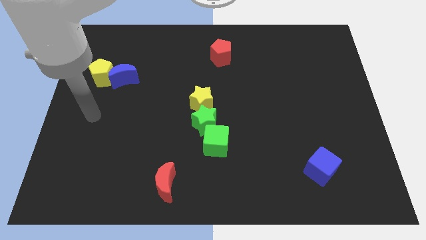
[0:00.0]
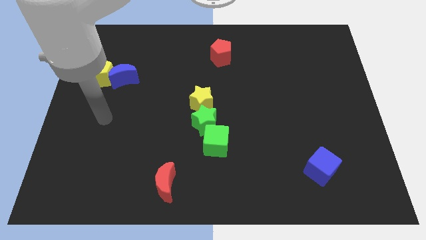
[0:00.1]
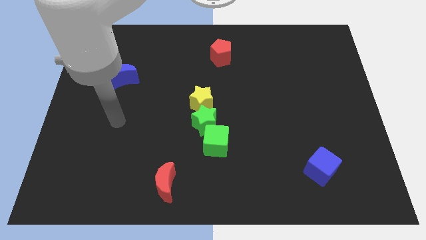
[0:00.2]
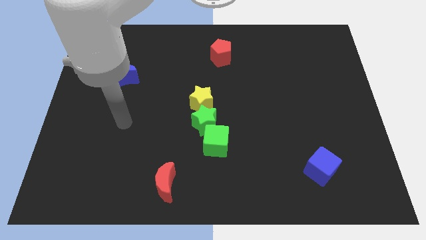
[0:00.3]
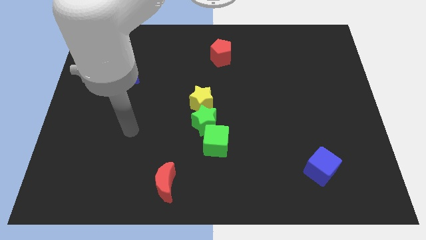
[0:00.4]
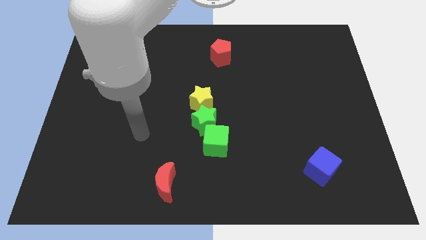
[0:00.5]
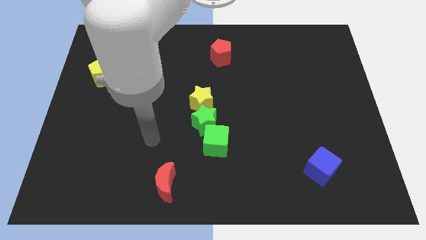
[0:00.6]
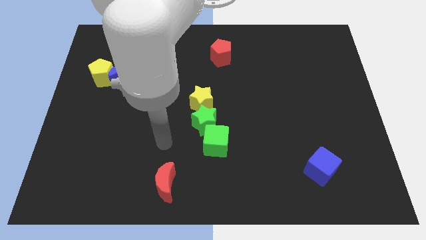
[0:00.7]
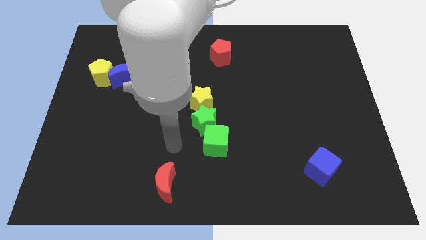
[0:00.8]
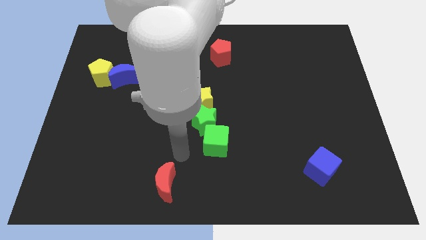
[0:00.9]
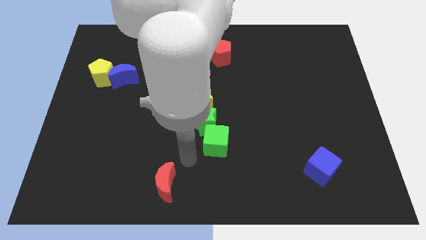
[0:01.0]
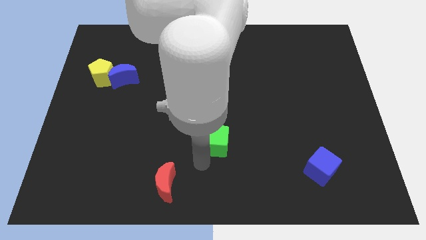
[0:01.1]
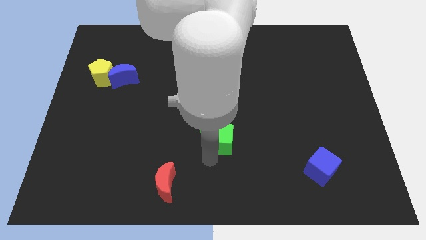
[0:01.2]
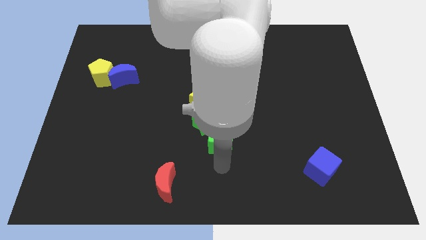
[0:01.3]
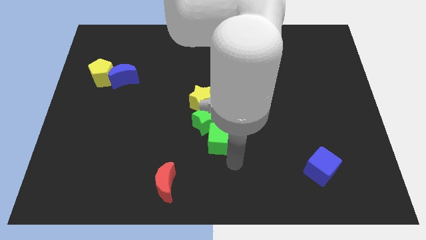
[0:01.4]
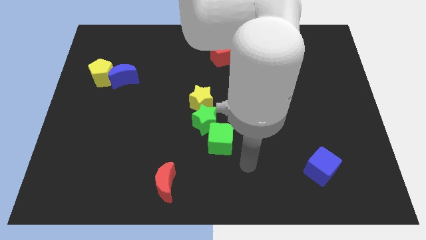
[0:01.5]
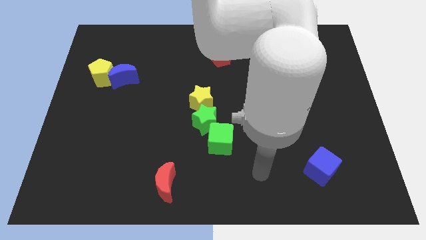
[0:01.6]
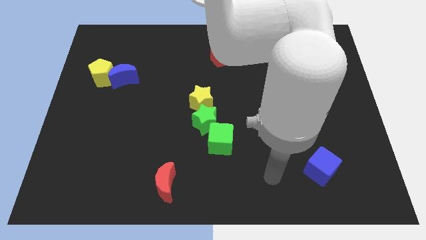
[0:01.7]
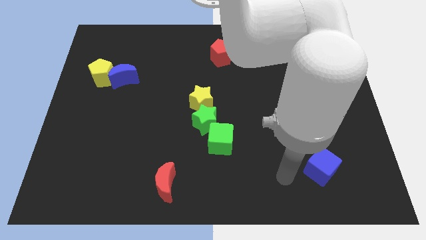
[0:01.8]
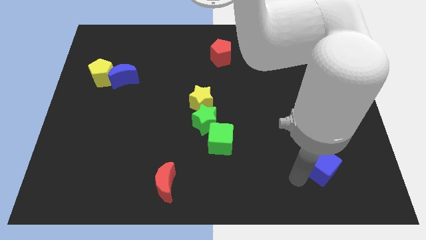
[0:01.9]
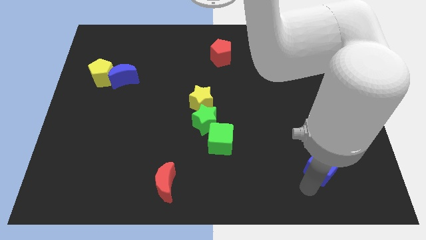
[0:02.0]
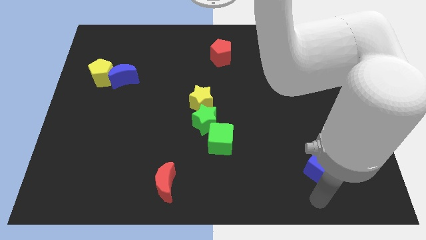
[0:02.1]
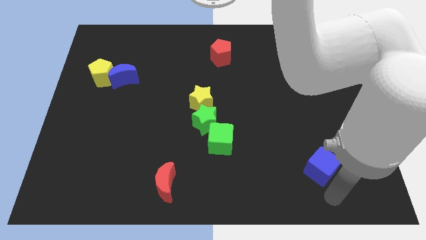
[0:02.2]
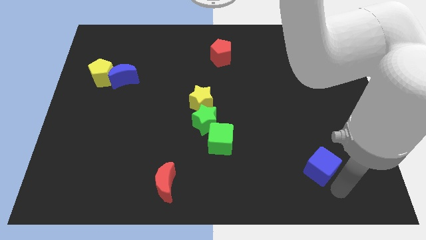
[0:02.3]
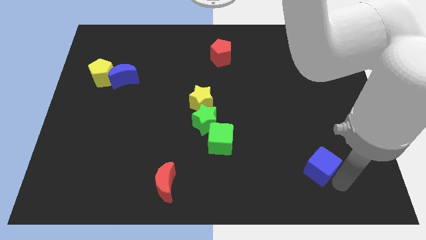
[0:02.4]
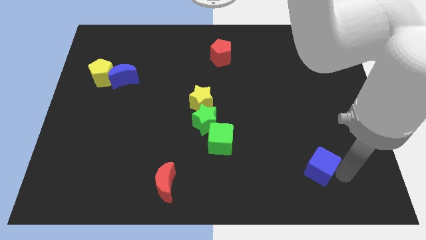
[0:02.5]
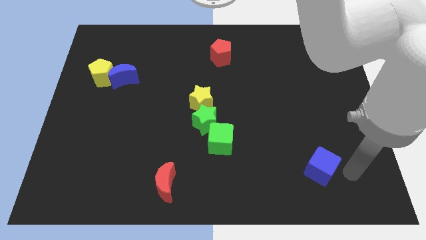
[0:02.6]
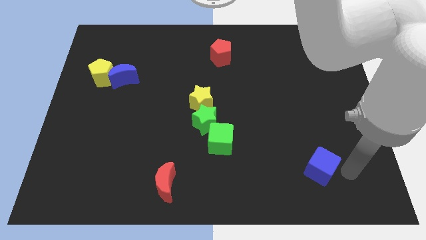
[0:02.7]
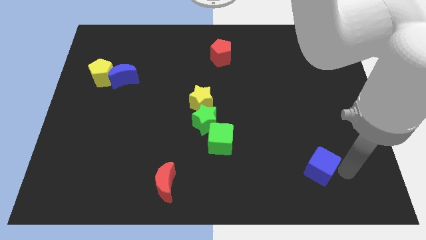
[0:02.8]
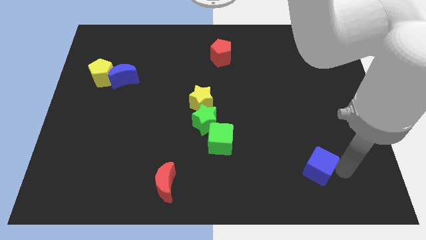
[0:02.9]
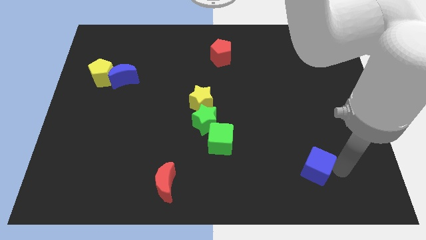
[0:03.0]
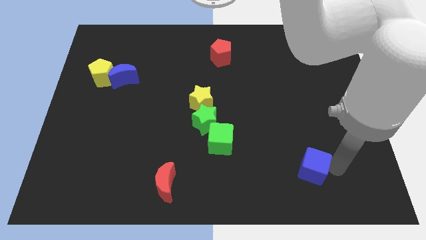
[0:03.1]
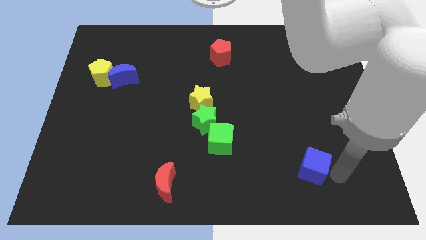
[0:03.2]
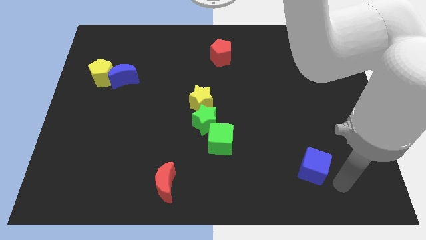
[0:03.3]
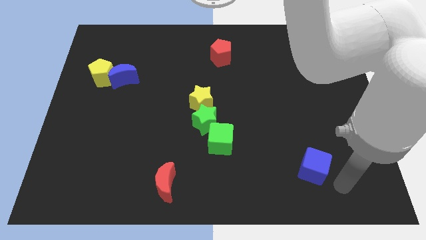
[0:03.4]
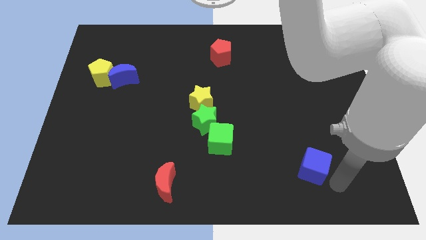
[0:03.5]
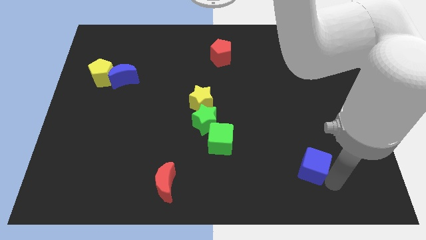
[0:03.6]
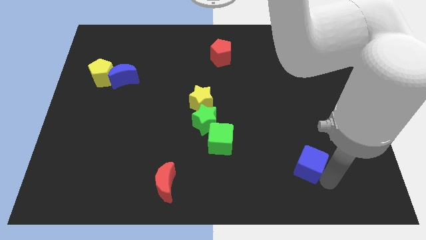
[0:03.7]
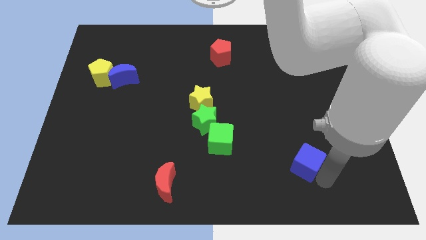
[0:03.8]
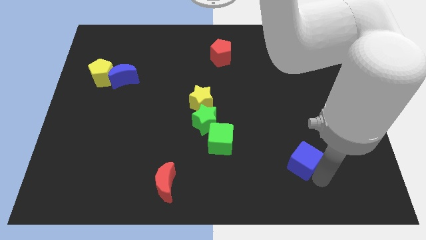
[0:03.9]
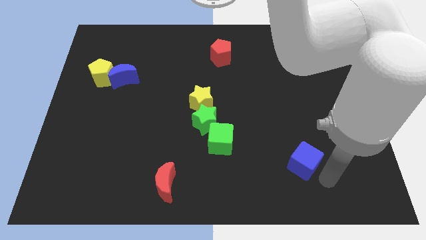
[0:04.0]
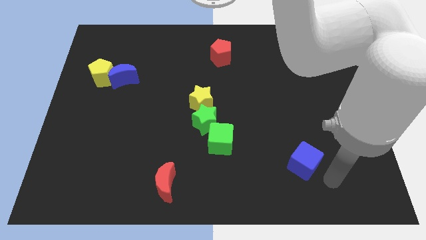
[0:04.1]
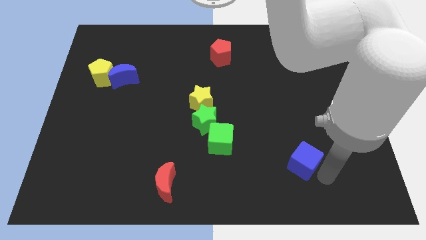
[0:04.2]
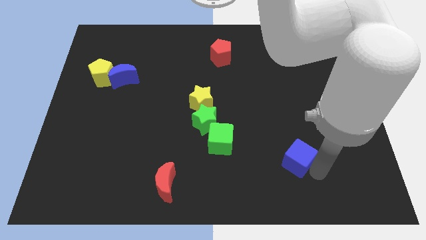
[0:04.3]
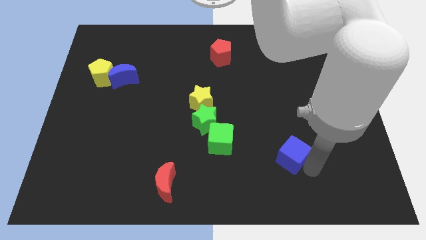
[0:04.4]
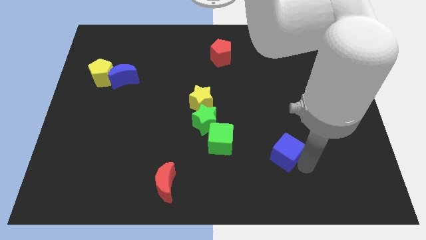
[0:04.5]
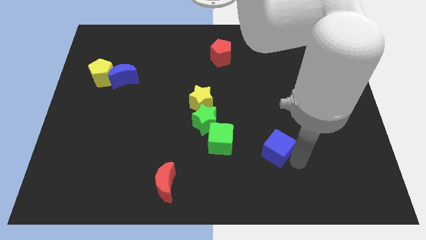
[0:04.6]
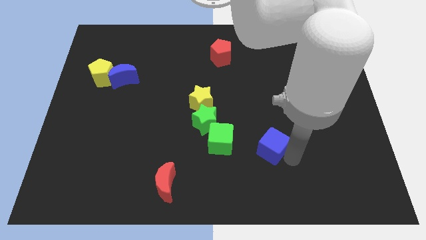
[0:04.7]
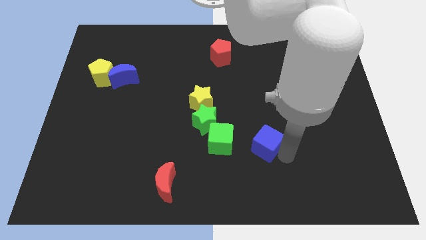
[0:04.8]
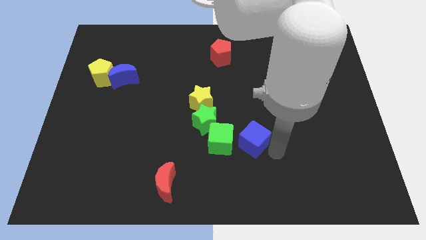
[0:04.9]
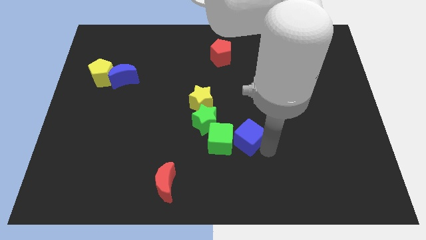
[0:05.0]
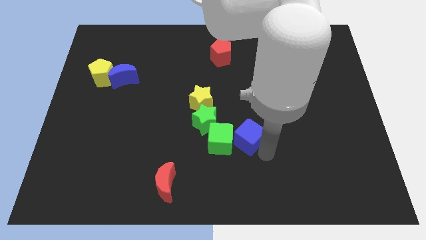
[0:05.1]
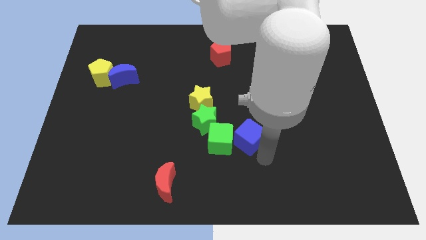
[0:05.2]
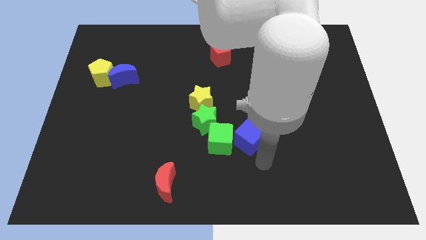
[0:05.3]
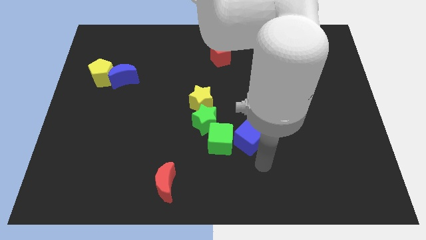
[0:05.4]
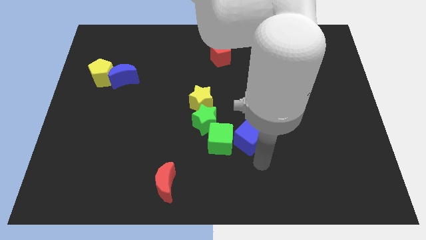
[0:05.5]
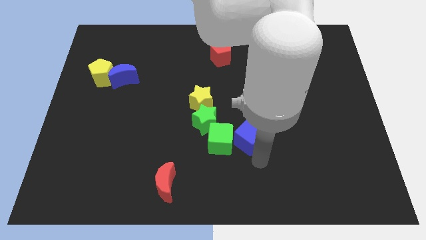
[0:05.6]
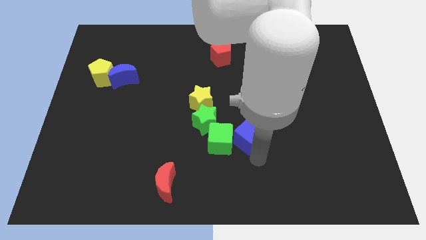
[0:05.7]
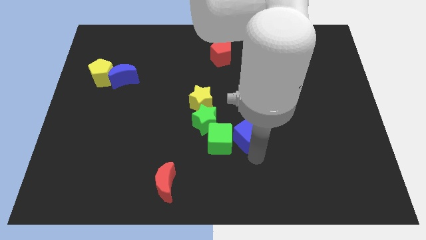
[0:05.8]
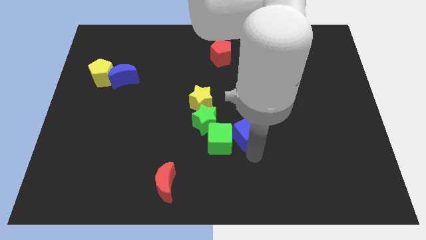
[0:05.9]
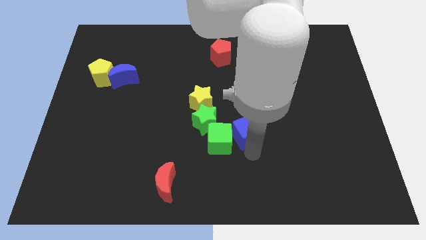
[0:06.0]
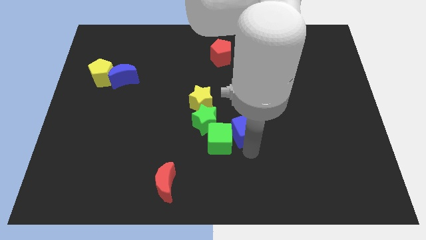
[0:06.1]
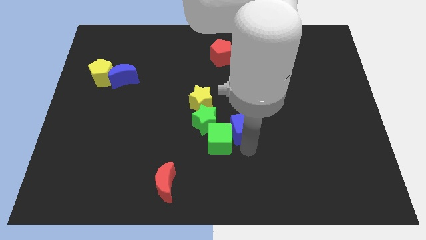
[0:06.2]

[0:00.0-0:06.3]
slide the blue cube diagonally down and to the right of the yellow star

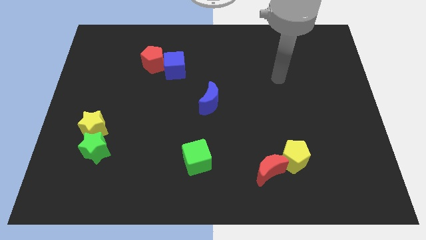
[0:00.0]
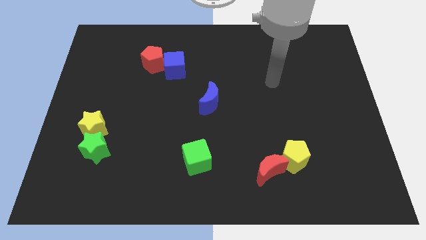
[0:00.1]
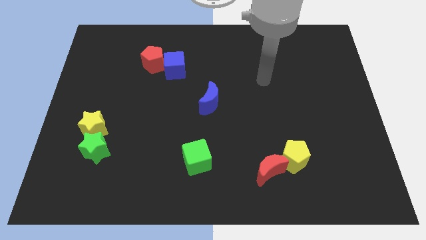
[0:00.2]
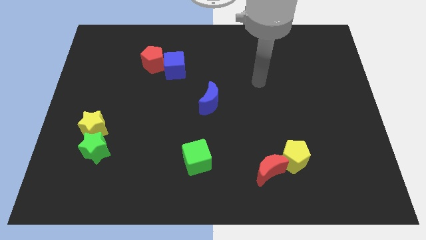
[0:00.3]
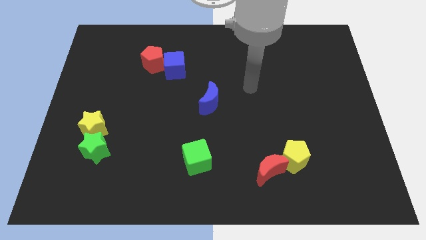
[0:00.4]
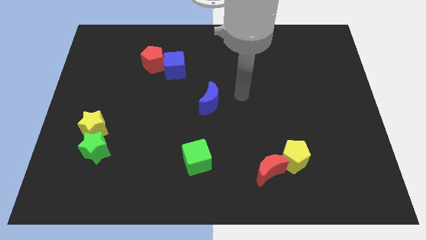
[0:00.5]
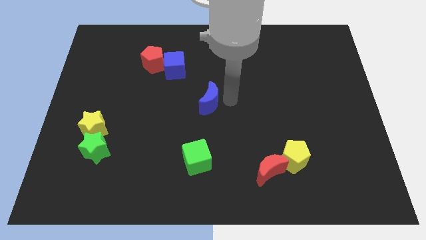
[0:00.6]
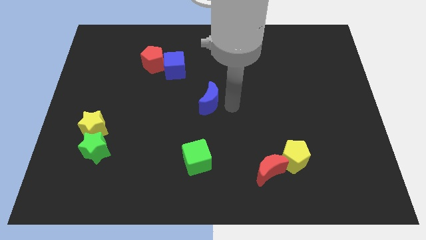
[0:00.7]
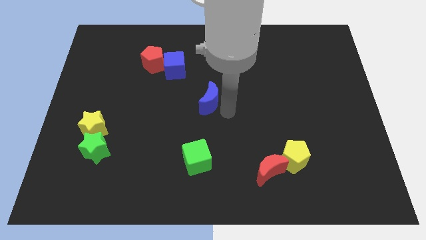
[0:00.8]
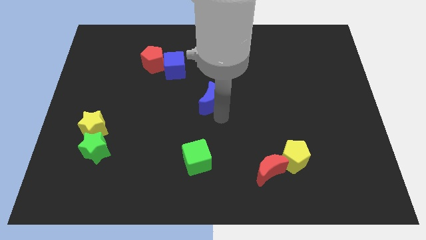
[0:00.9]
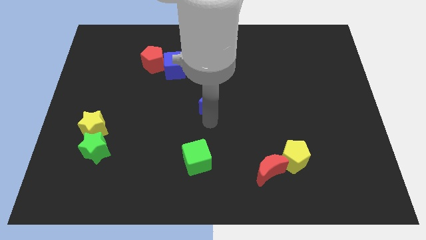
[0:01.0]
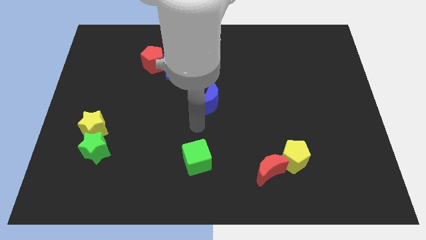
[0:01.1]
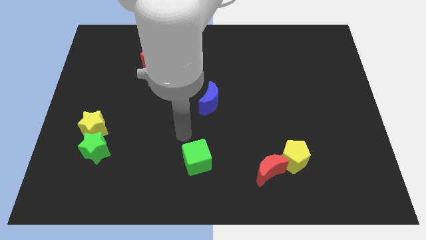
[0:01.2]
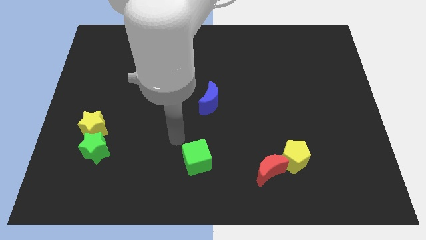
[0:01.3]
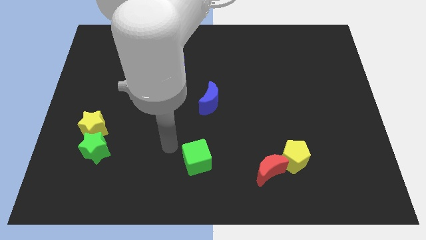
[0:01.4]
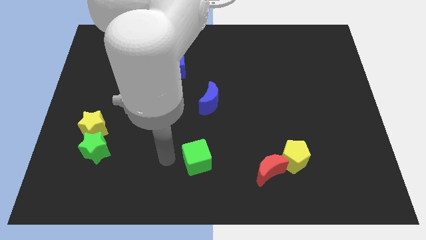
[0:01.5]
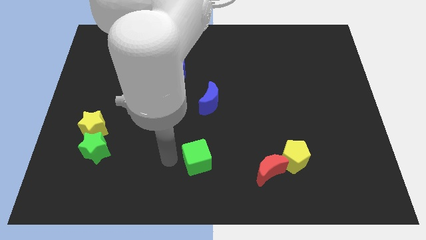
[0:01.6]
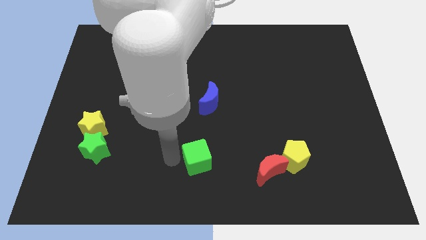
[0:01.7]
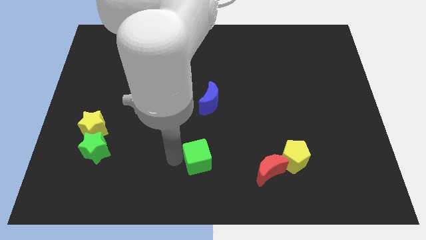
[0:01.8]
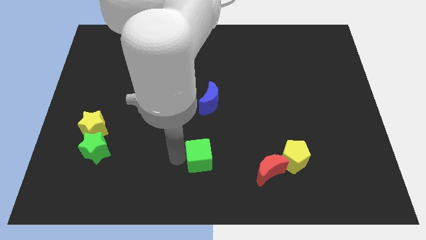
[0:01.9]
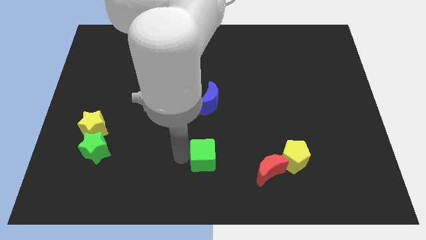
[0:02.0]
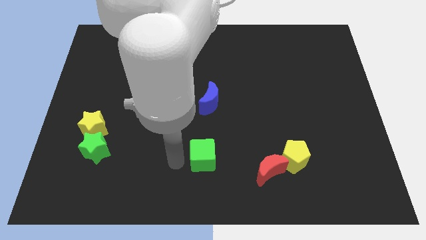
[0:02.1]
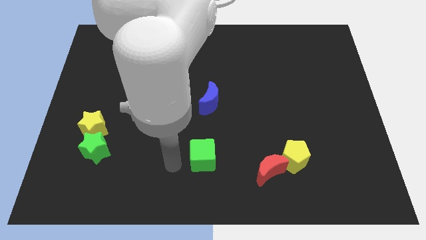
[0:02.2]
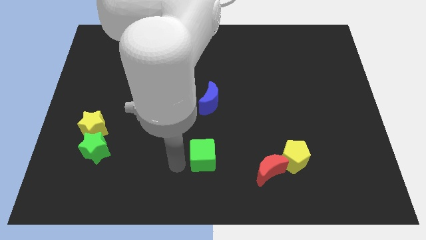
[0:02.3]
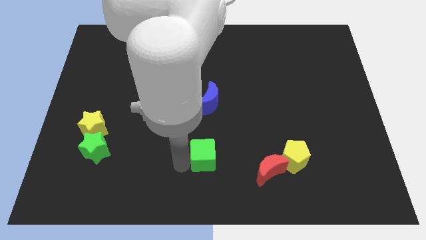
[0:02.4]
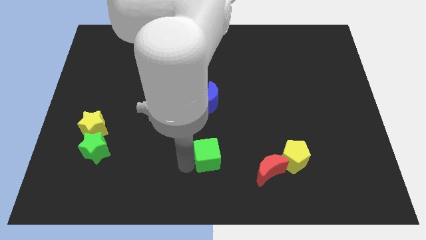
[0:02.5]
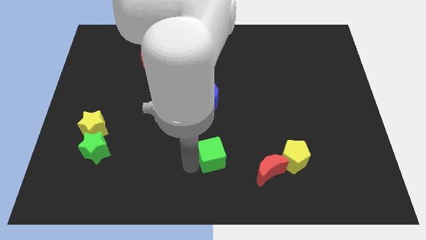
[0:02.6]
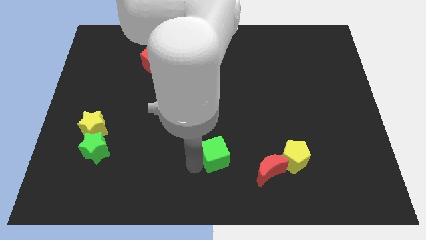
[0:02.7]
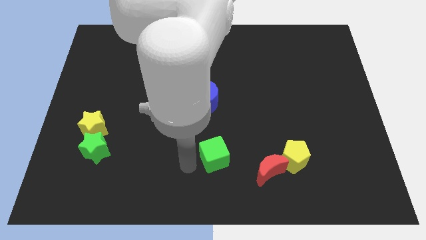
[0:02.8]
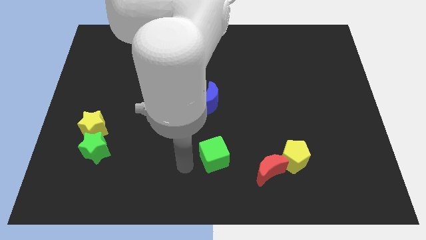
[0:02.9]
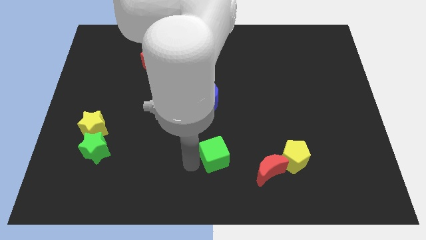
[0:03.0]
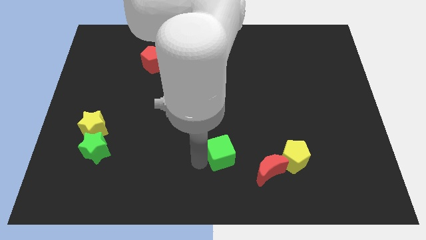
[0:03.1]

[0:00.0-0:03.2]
push the green cube diagonally up and to the left of the red moon
